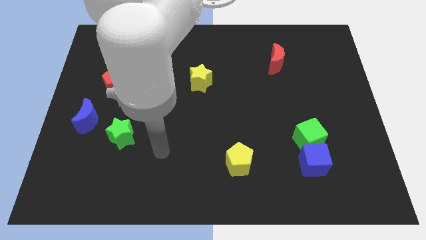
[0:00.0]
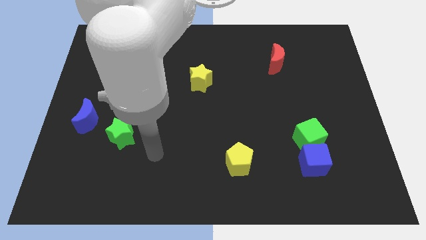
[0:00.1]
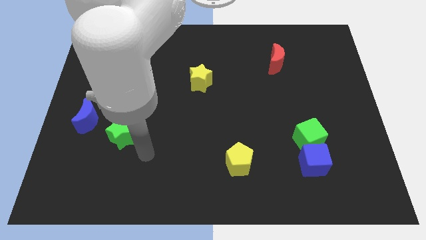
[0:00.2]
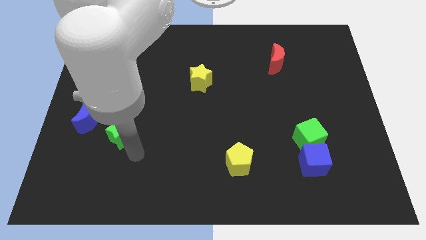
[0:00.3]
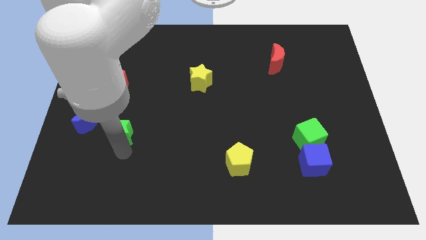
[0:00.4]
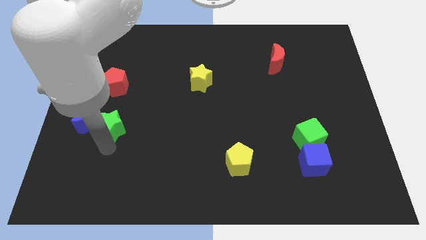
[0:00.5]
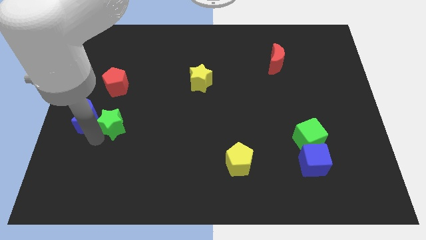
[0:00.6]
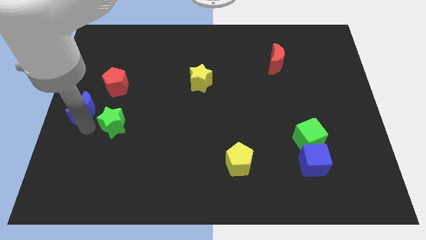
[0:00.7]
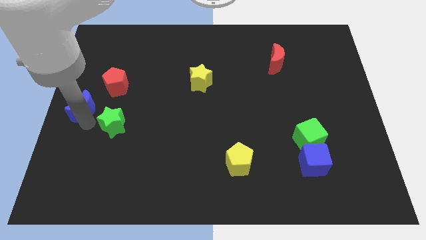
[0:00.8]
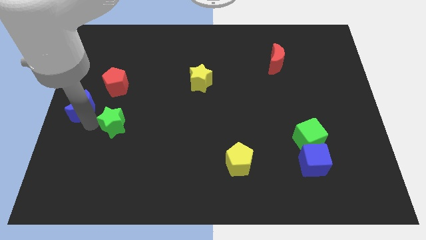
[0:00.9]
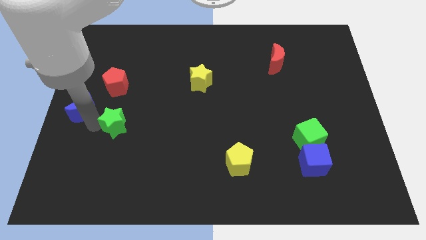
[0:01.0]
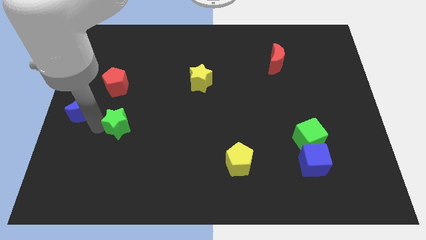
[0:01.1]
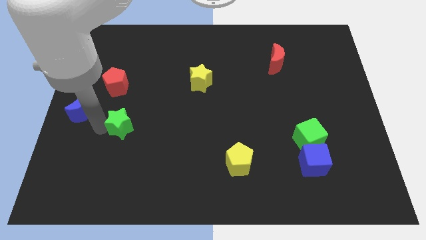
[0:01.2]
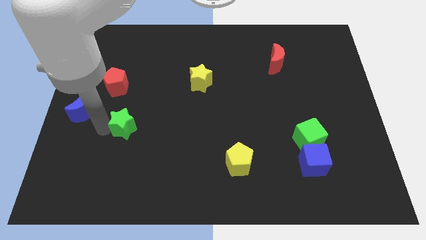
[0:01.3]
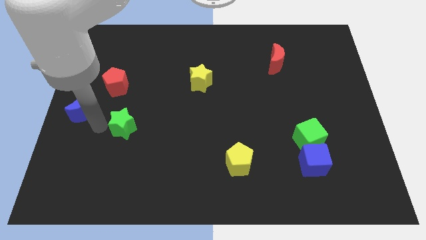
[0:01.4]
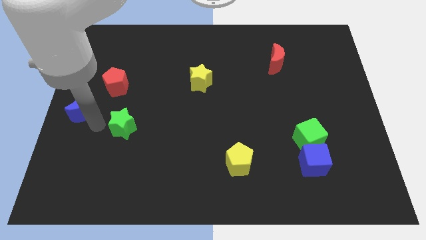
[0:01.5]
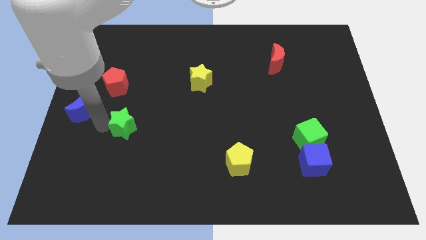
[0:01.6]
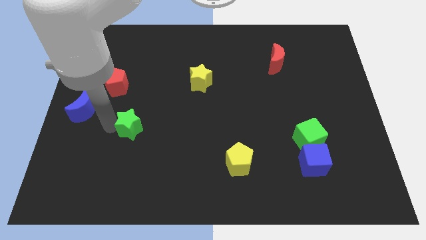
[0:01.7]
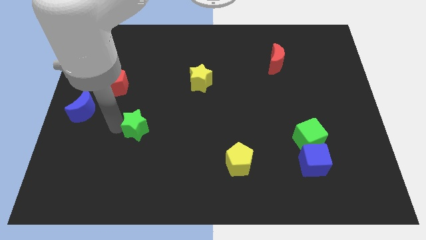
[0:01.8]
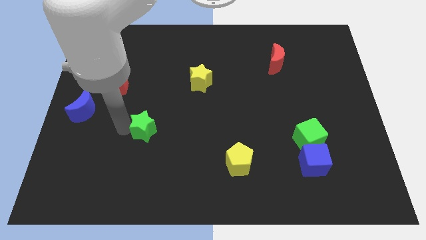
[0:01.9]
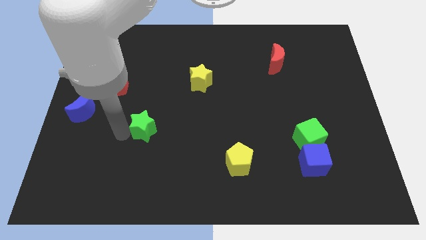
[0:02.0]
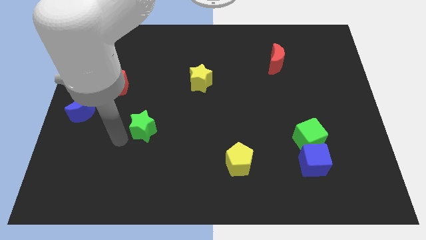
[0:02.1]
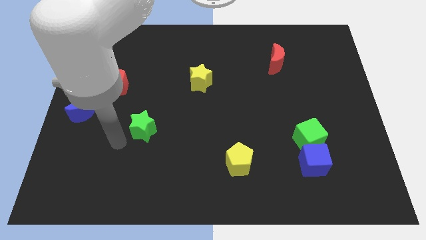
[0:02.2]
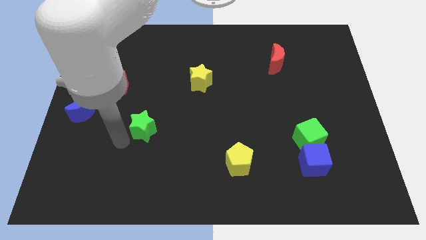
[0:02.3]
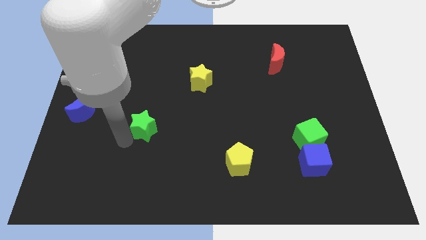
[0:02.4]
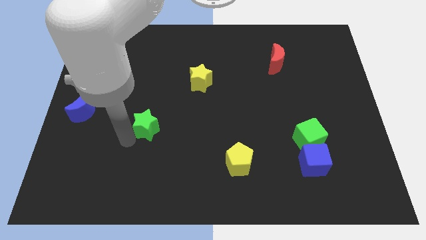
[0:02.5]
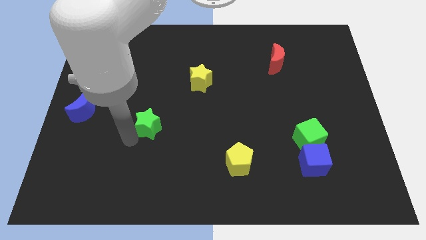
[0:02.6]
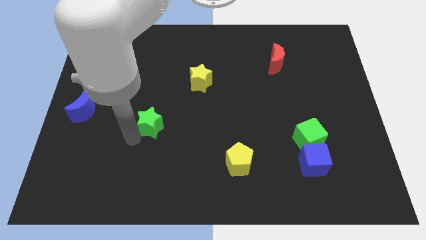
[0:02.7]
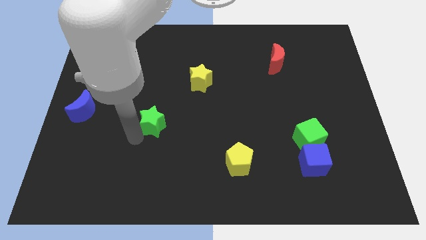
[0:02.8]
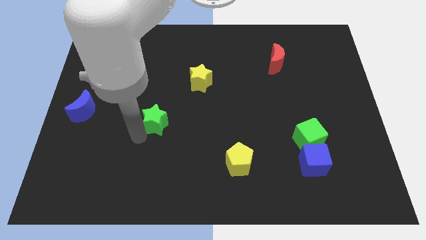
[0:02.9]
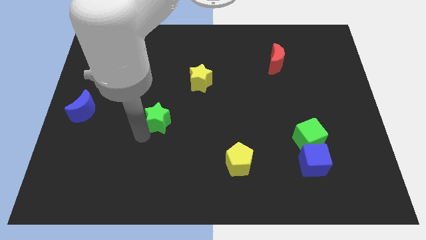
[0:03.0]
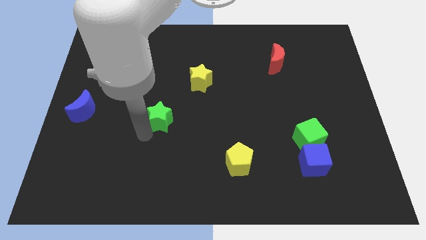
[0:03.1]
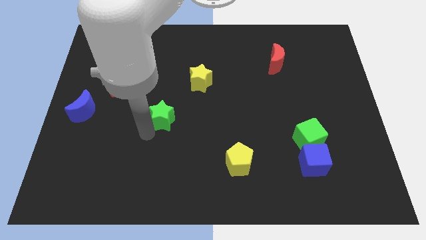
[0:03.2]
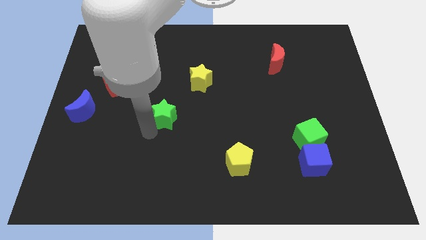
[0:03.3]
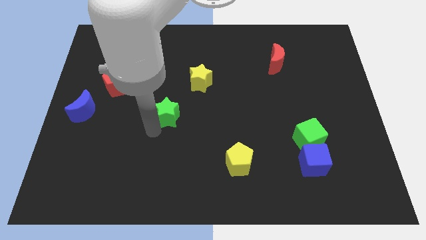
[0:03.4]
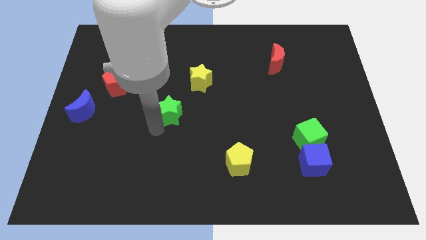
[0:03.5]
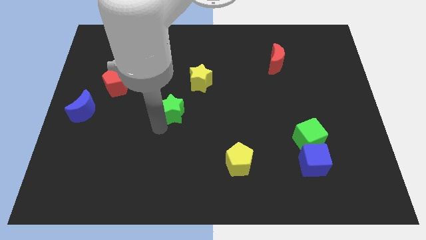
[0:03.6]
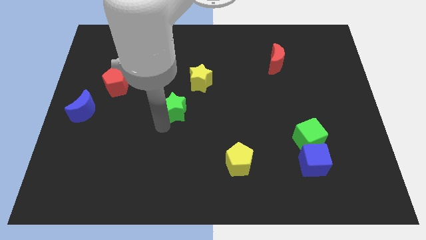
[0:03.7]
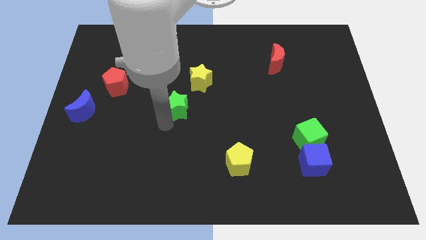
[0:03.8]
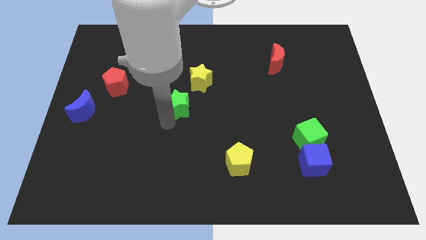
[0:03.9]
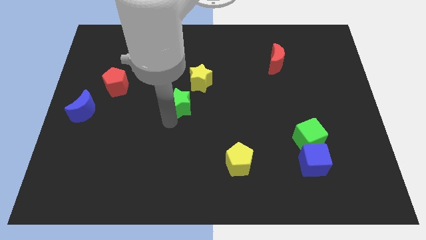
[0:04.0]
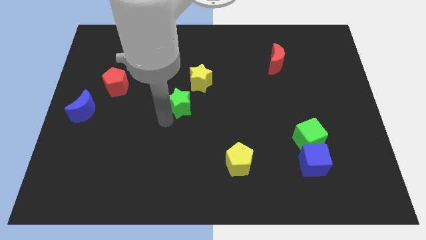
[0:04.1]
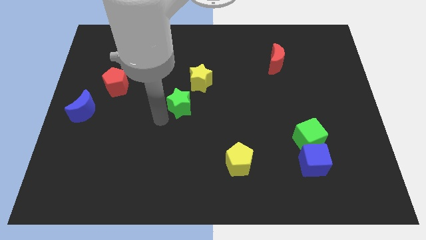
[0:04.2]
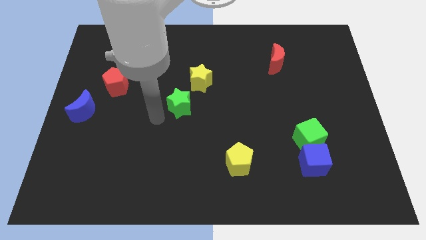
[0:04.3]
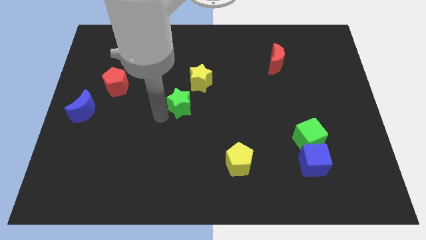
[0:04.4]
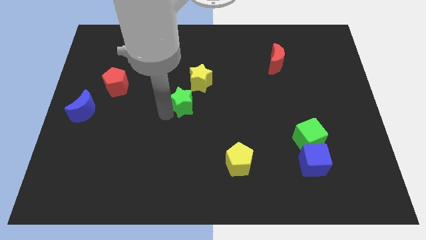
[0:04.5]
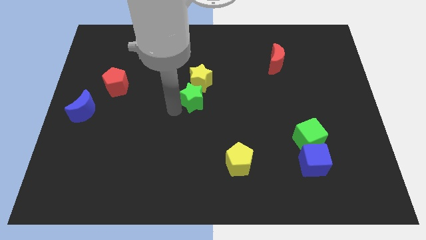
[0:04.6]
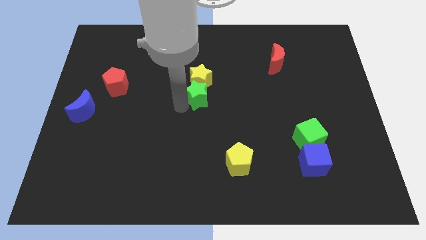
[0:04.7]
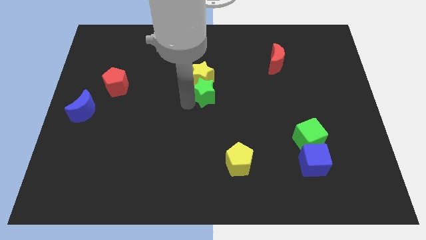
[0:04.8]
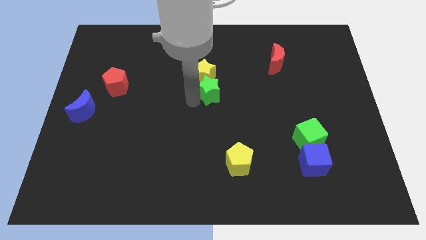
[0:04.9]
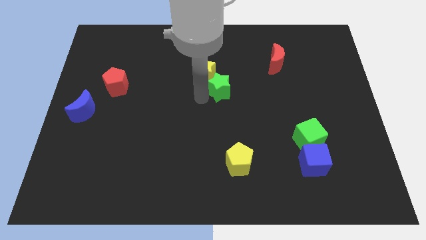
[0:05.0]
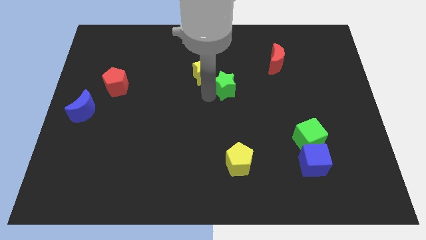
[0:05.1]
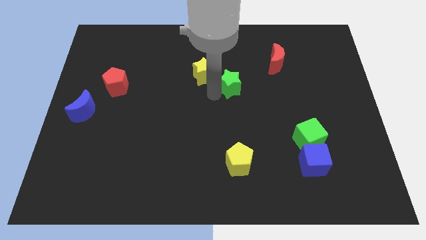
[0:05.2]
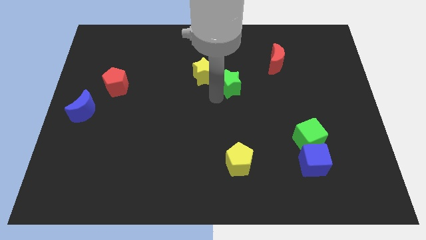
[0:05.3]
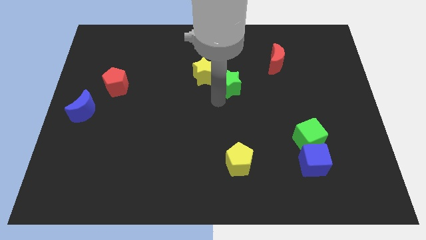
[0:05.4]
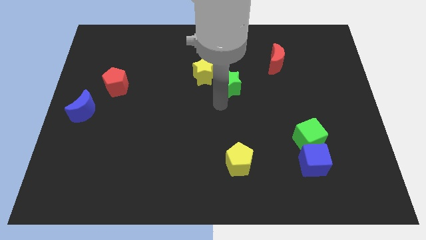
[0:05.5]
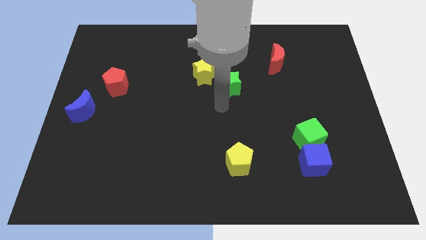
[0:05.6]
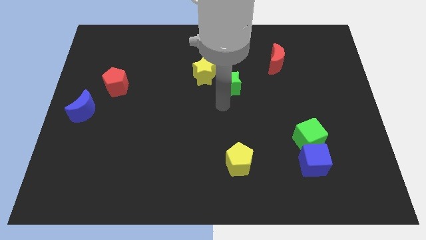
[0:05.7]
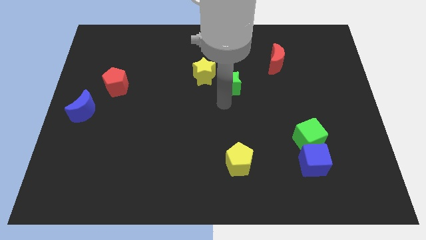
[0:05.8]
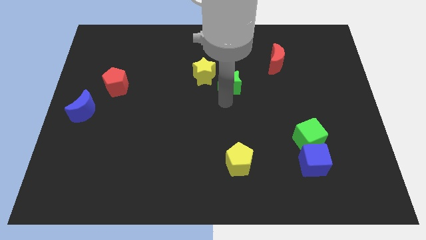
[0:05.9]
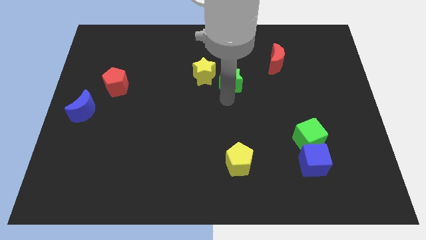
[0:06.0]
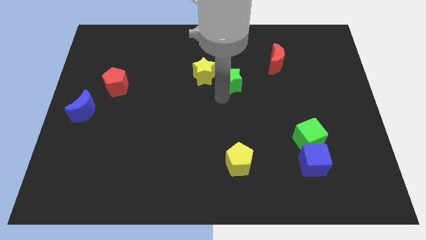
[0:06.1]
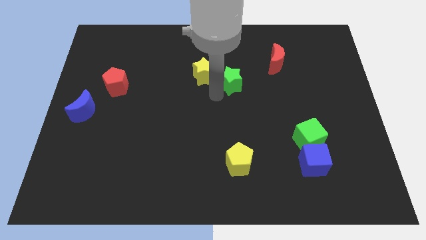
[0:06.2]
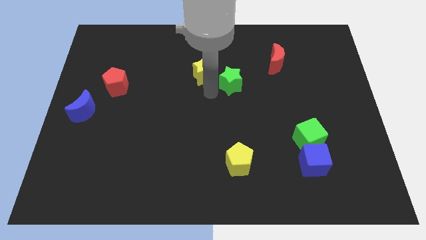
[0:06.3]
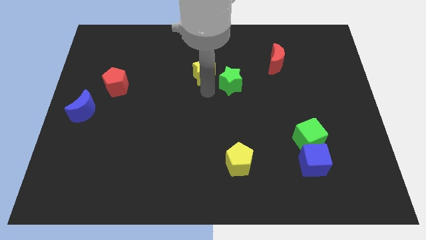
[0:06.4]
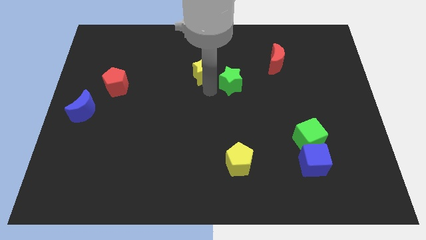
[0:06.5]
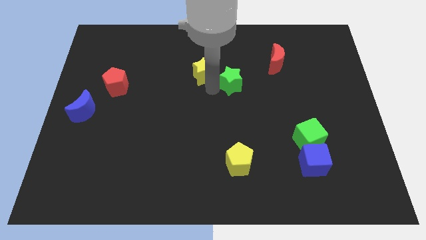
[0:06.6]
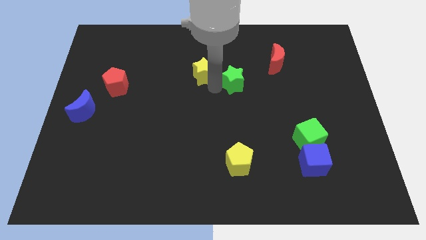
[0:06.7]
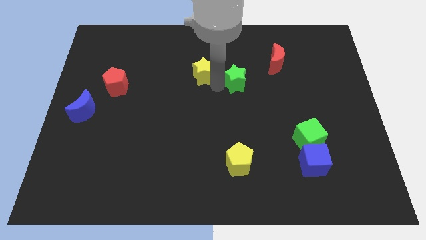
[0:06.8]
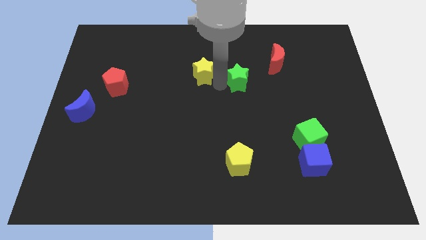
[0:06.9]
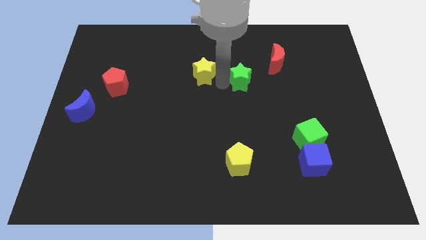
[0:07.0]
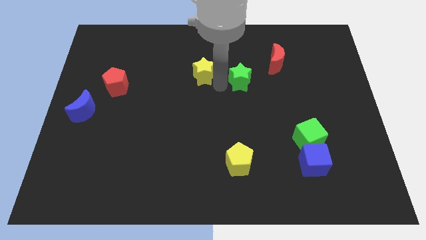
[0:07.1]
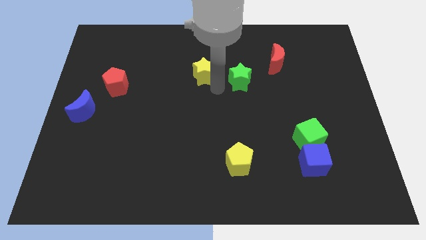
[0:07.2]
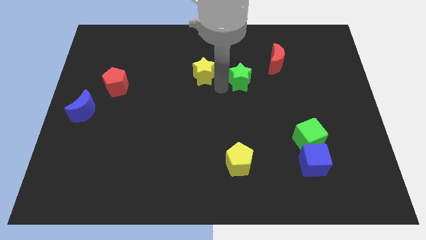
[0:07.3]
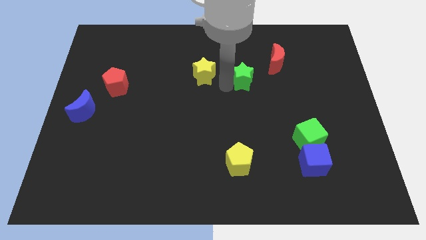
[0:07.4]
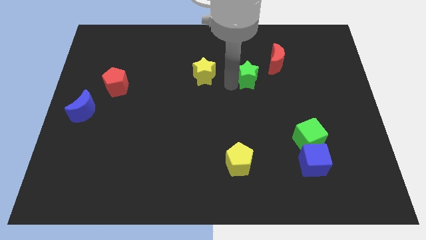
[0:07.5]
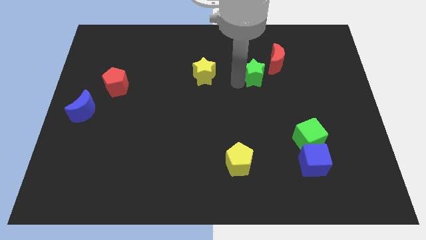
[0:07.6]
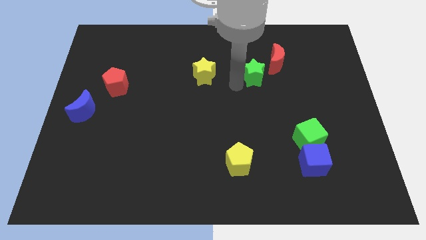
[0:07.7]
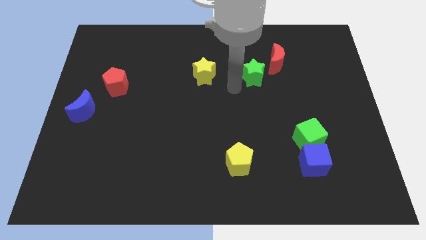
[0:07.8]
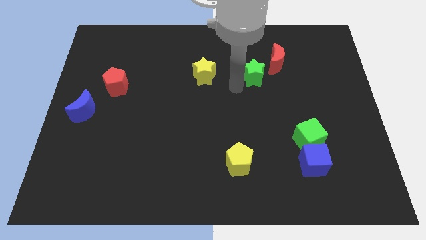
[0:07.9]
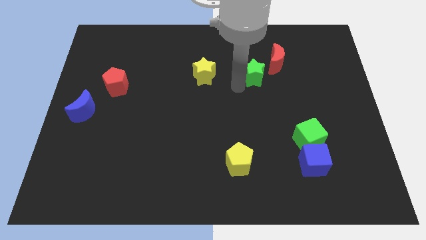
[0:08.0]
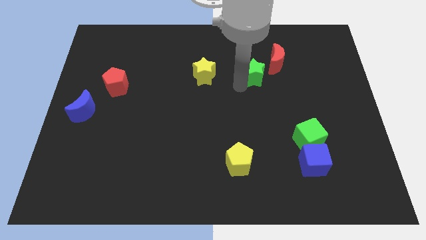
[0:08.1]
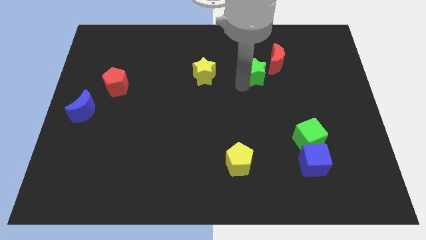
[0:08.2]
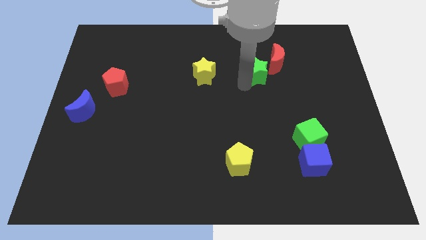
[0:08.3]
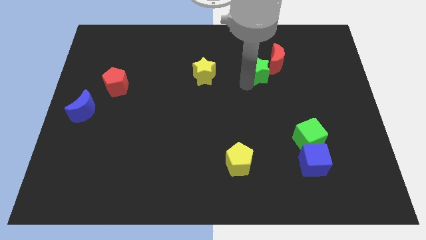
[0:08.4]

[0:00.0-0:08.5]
push the green star towards the red moon
